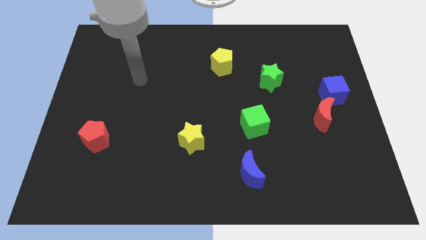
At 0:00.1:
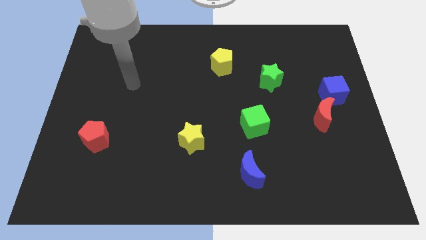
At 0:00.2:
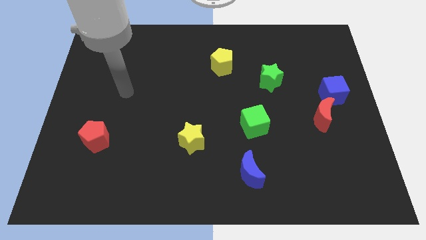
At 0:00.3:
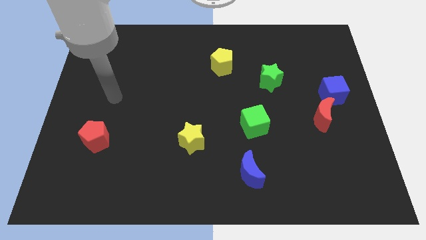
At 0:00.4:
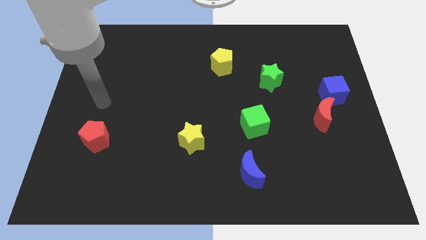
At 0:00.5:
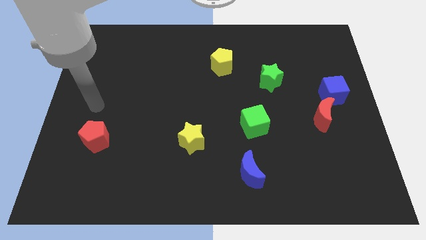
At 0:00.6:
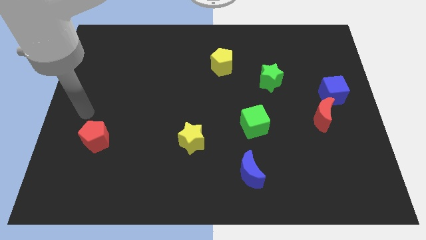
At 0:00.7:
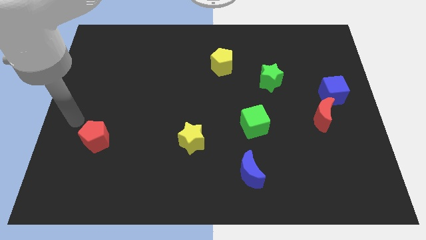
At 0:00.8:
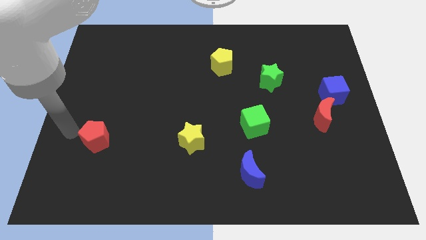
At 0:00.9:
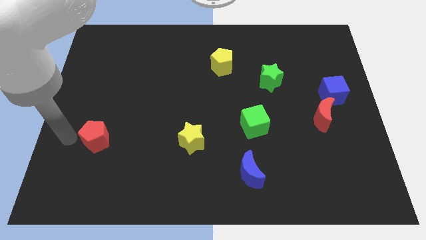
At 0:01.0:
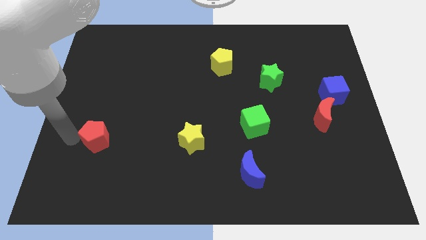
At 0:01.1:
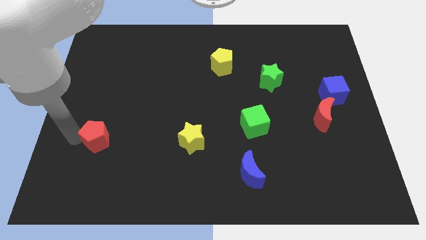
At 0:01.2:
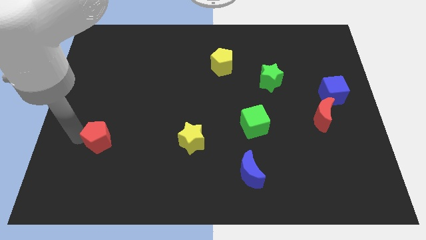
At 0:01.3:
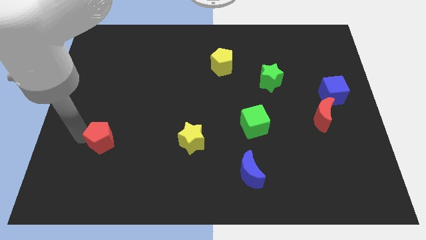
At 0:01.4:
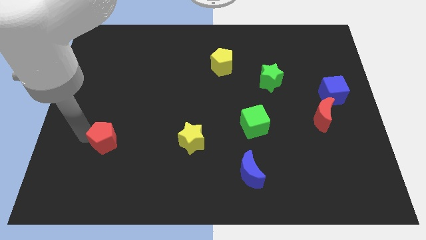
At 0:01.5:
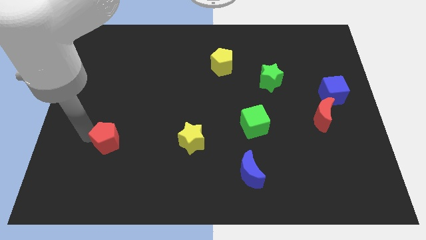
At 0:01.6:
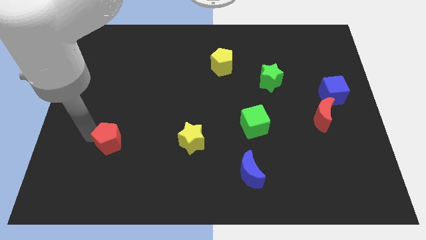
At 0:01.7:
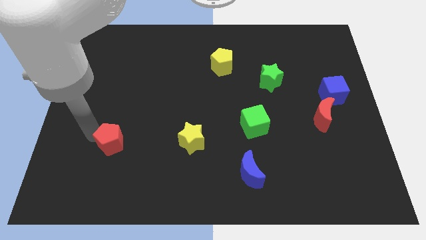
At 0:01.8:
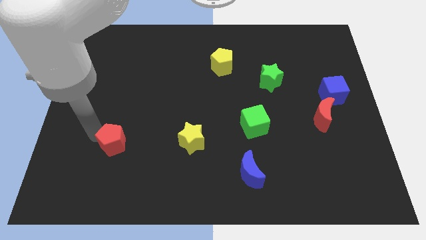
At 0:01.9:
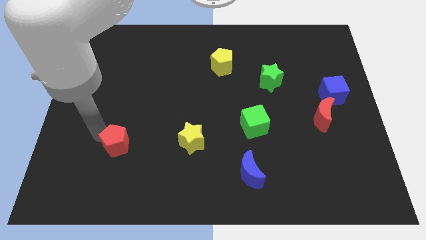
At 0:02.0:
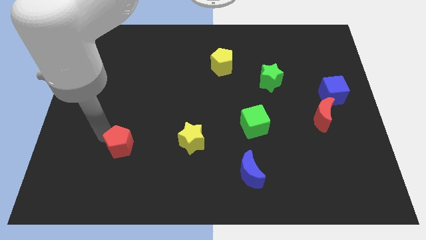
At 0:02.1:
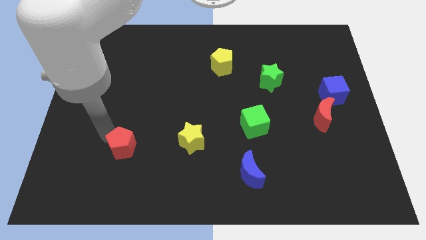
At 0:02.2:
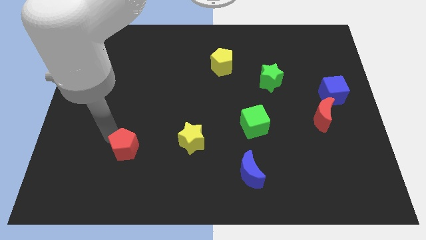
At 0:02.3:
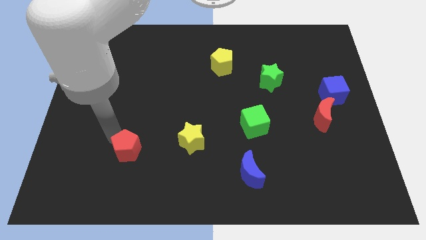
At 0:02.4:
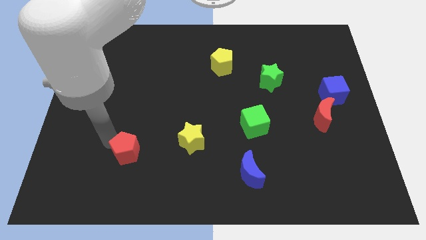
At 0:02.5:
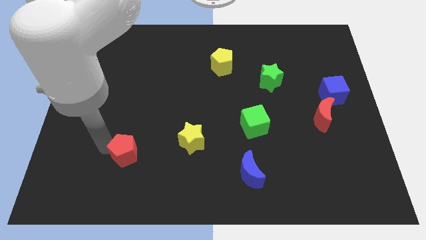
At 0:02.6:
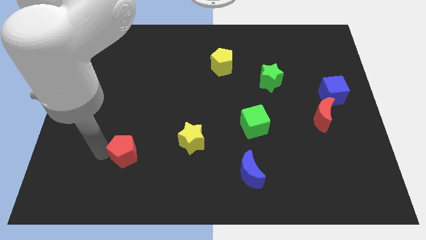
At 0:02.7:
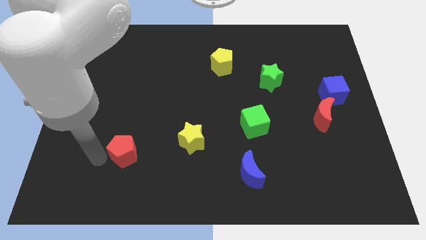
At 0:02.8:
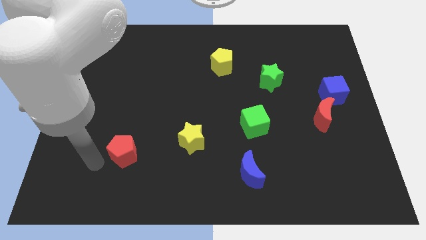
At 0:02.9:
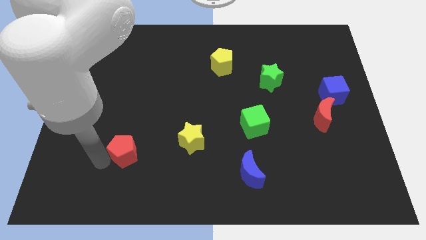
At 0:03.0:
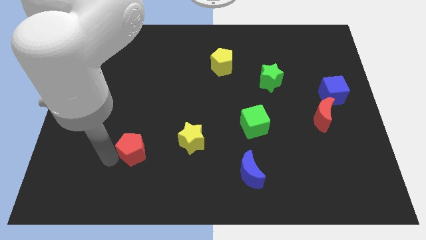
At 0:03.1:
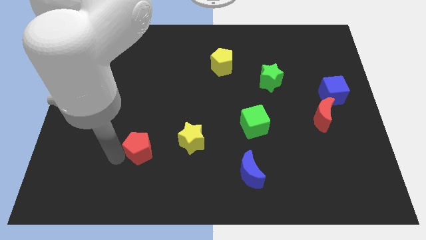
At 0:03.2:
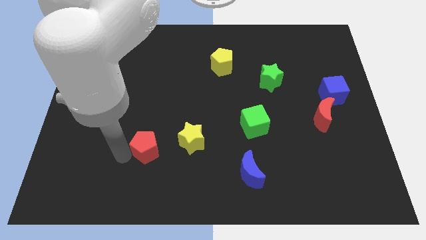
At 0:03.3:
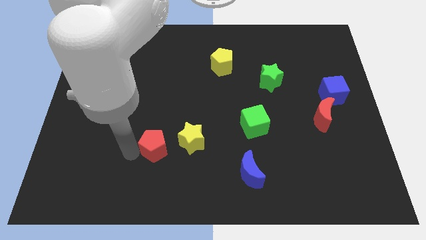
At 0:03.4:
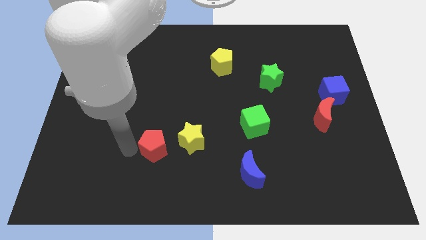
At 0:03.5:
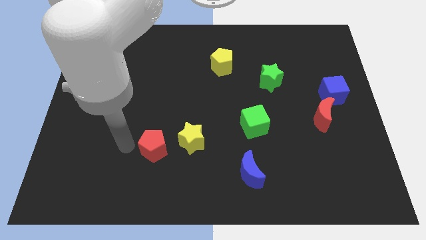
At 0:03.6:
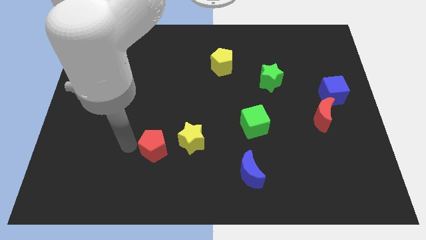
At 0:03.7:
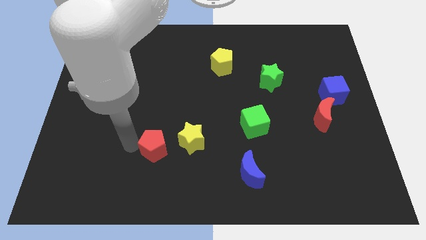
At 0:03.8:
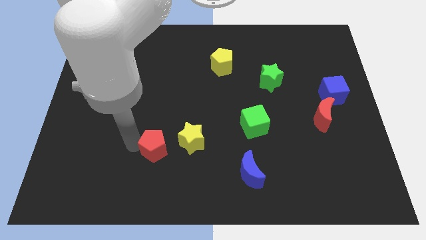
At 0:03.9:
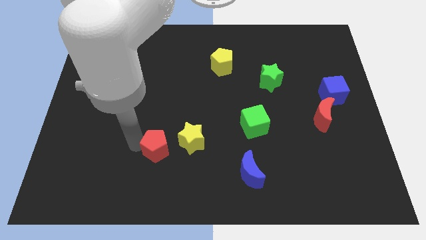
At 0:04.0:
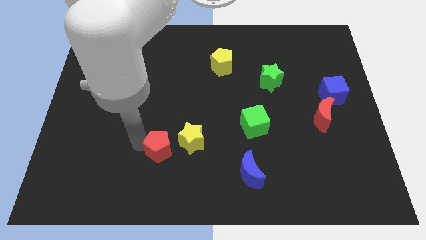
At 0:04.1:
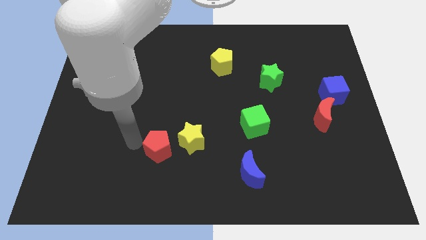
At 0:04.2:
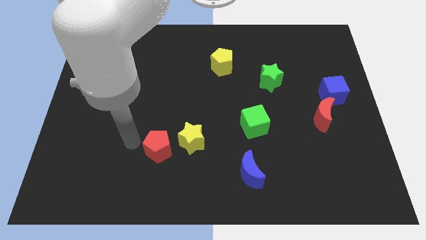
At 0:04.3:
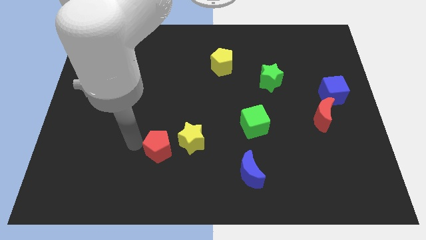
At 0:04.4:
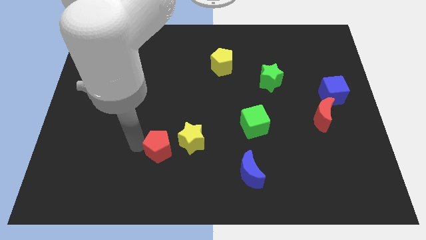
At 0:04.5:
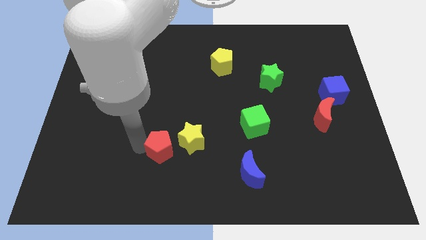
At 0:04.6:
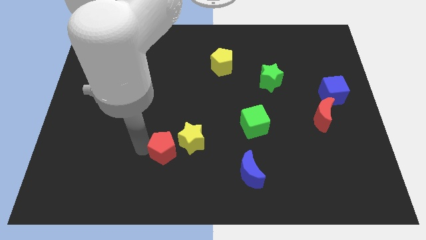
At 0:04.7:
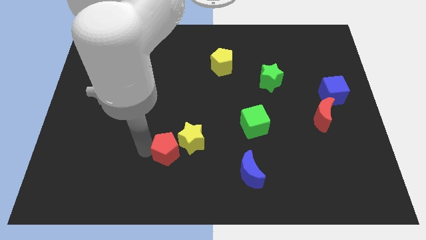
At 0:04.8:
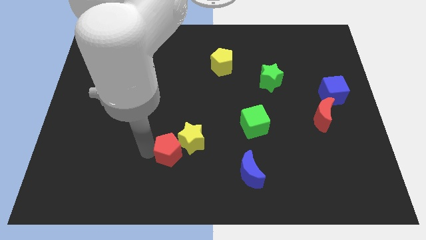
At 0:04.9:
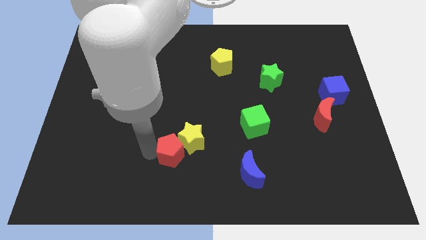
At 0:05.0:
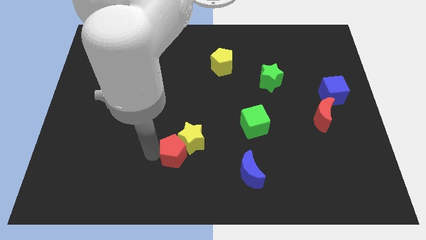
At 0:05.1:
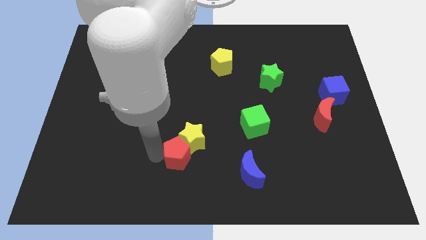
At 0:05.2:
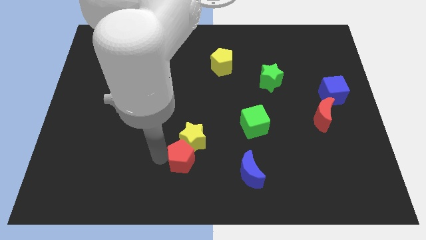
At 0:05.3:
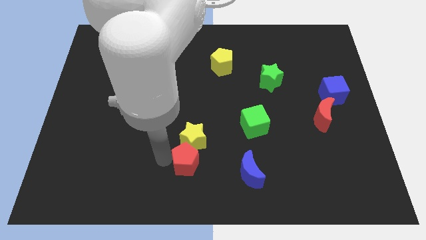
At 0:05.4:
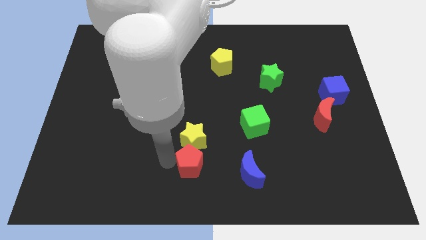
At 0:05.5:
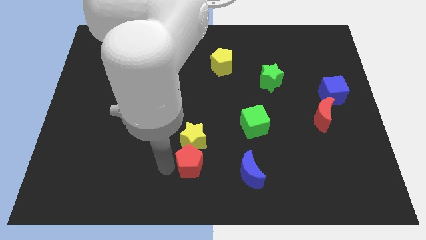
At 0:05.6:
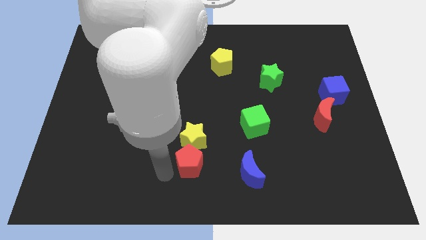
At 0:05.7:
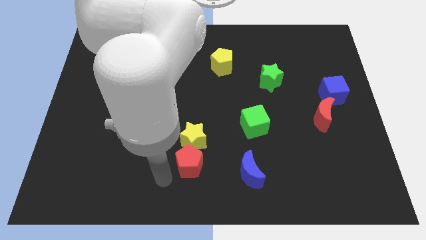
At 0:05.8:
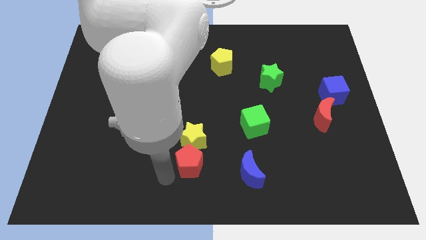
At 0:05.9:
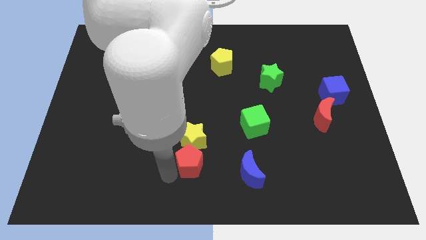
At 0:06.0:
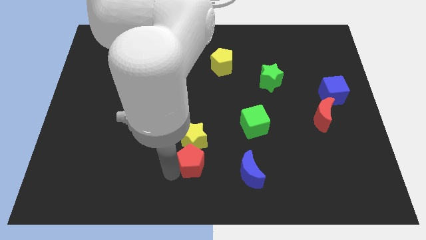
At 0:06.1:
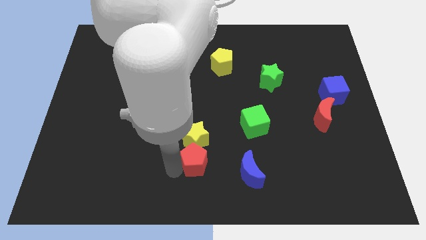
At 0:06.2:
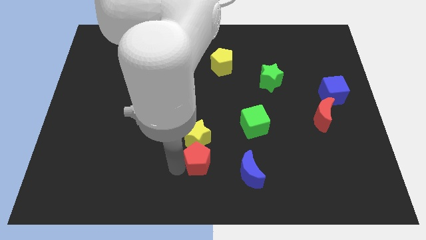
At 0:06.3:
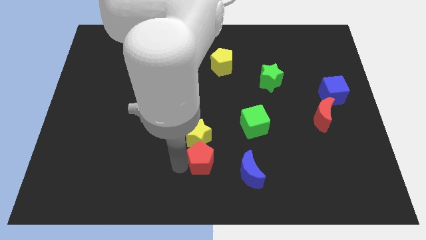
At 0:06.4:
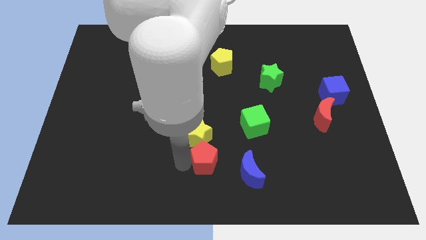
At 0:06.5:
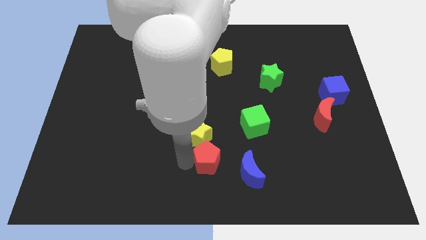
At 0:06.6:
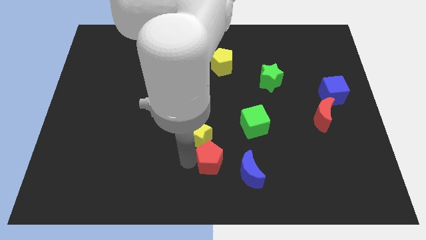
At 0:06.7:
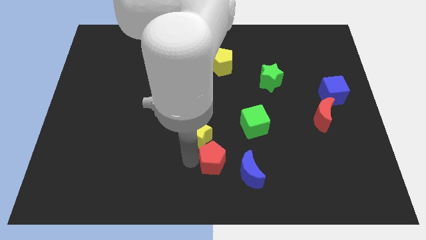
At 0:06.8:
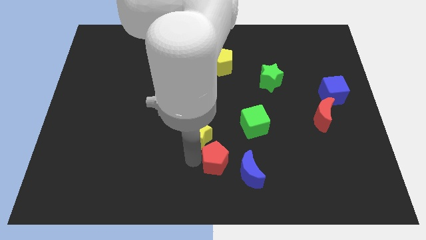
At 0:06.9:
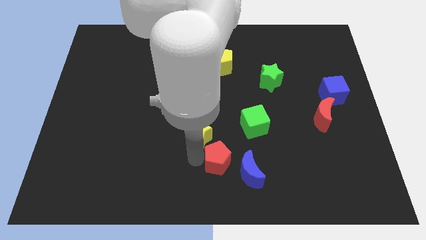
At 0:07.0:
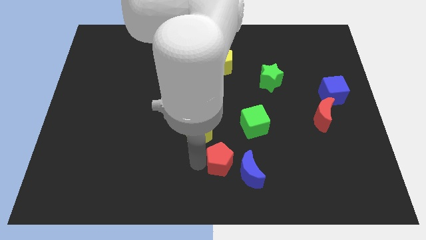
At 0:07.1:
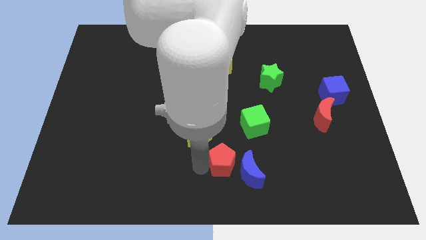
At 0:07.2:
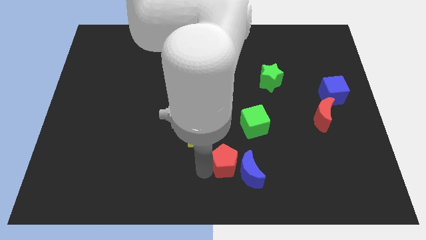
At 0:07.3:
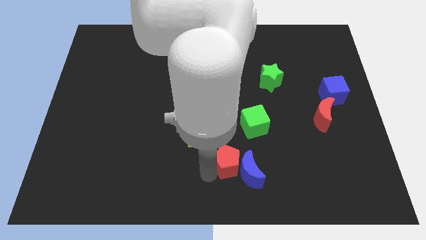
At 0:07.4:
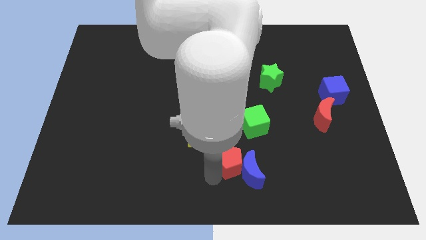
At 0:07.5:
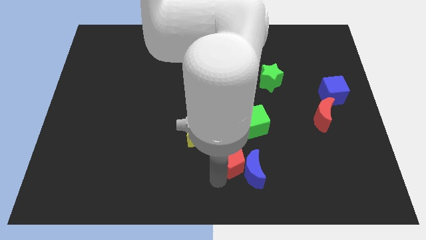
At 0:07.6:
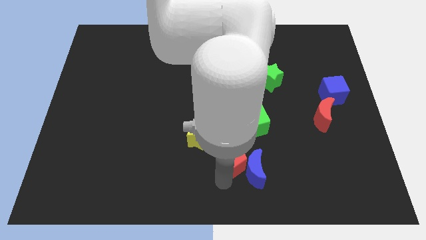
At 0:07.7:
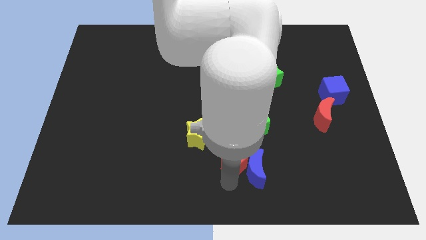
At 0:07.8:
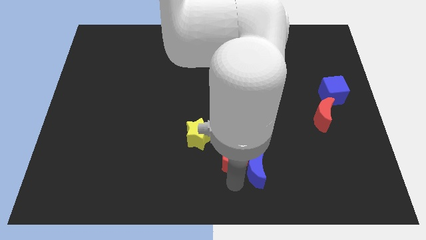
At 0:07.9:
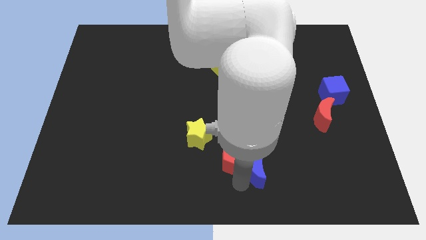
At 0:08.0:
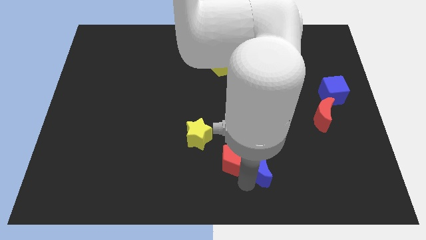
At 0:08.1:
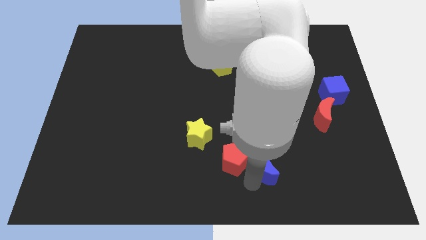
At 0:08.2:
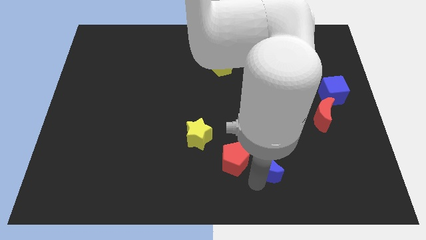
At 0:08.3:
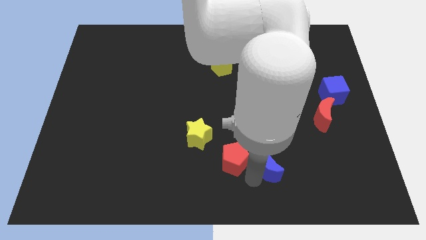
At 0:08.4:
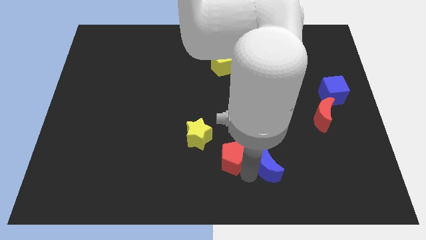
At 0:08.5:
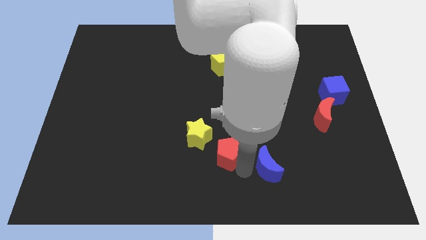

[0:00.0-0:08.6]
put the red pentagon just right of the yellow star
